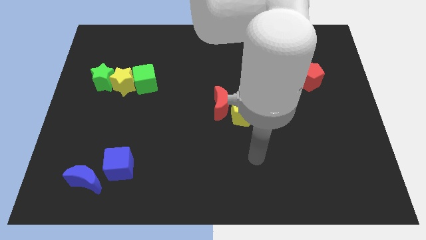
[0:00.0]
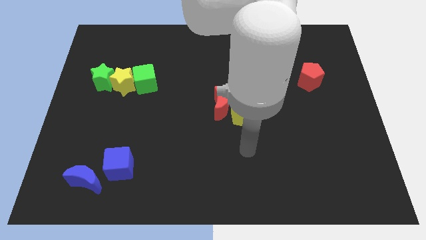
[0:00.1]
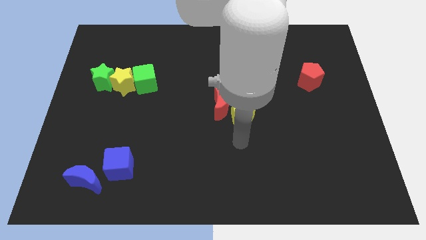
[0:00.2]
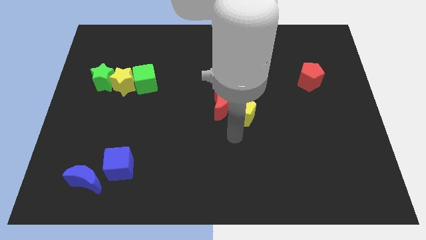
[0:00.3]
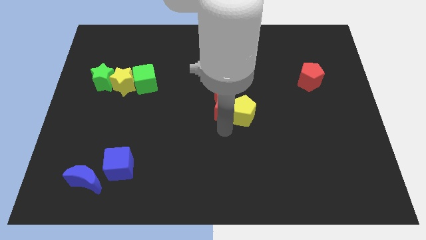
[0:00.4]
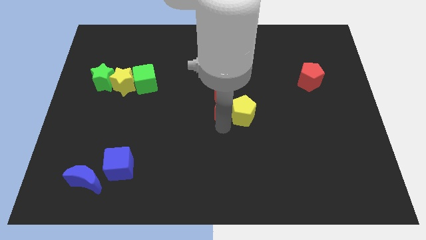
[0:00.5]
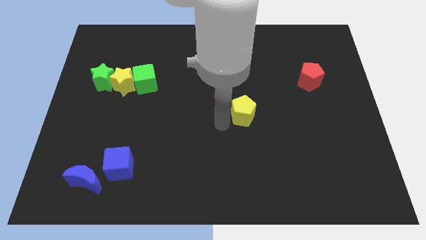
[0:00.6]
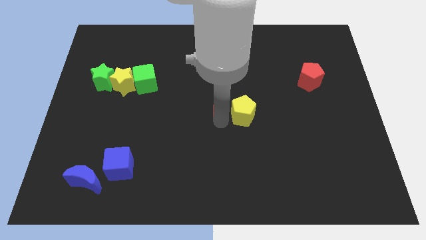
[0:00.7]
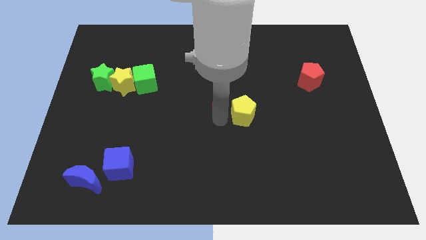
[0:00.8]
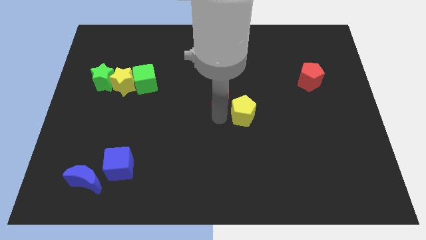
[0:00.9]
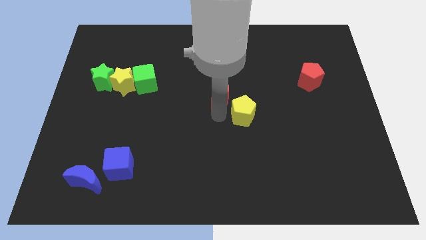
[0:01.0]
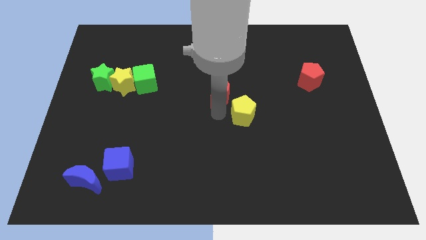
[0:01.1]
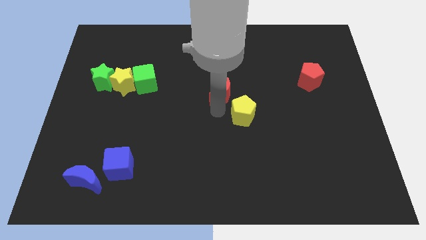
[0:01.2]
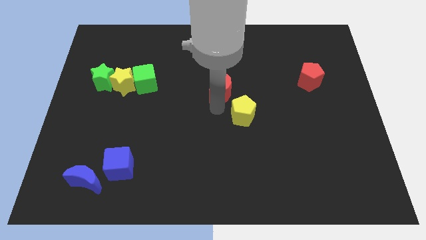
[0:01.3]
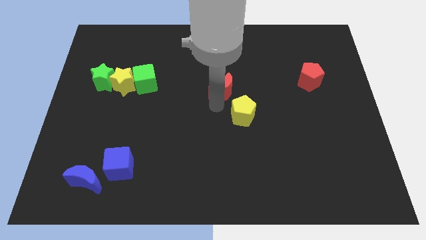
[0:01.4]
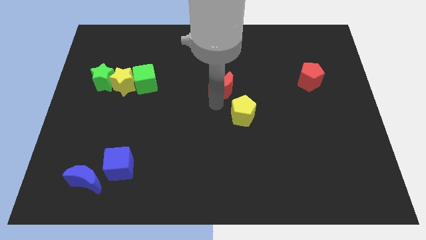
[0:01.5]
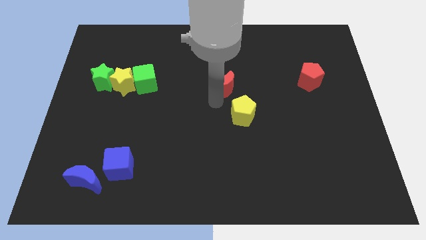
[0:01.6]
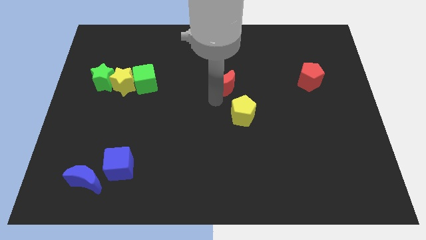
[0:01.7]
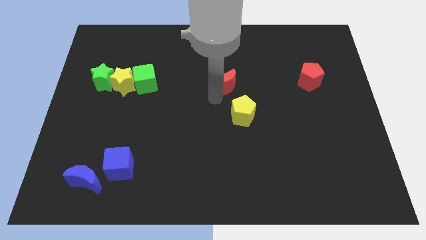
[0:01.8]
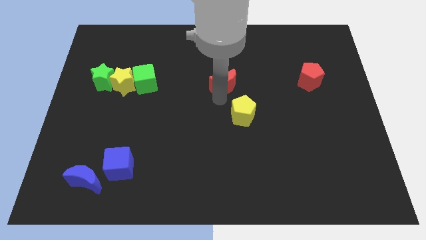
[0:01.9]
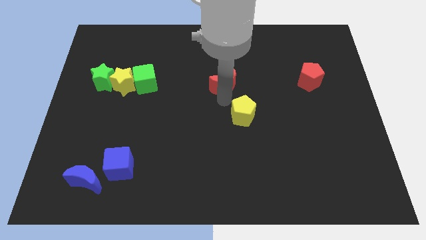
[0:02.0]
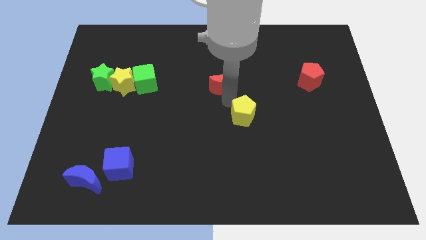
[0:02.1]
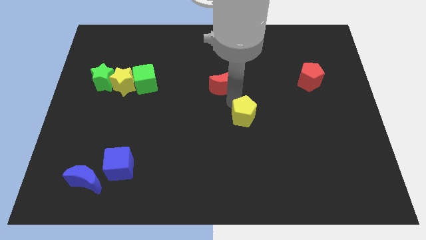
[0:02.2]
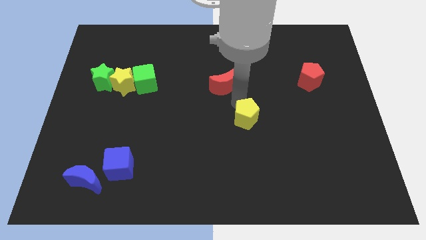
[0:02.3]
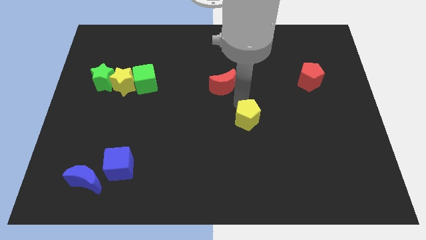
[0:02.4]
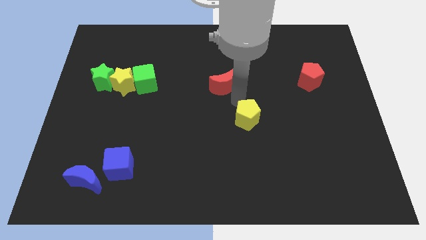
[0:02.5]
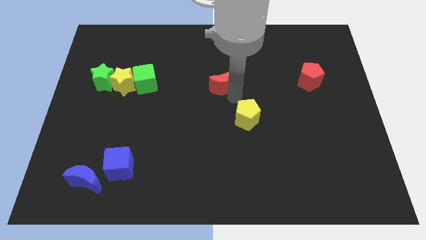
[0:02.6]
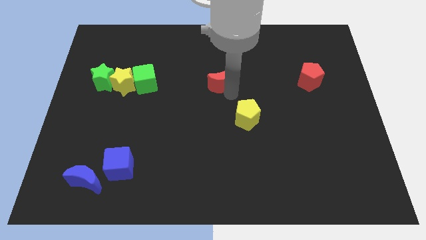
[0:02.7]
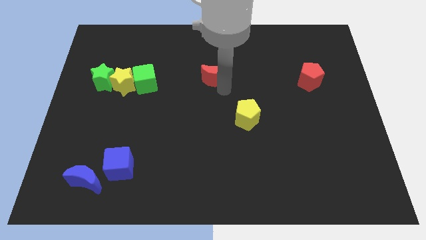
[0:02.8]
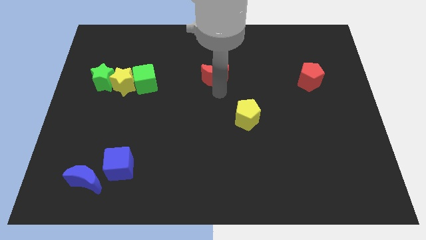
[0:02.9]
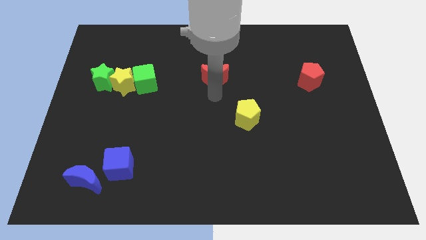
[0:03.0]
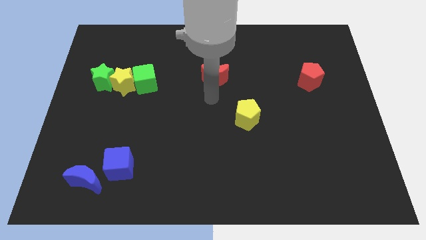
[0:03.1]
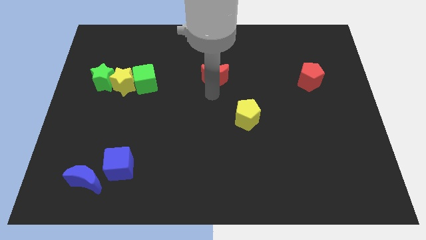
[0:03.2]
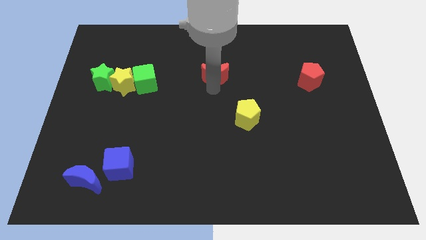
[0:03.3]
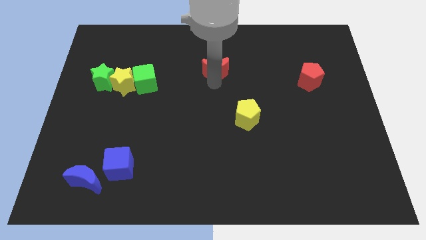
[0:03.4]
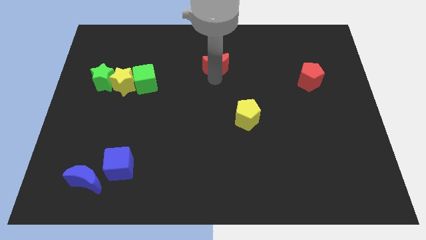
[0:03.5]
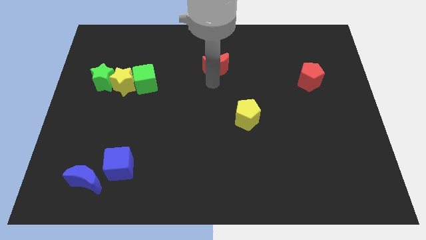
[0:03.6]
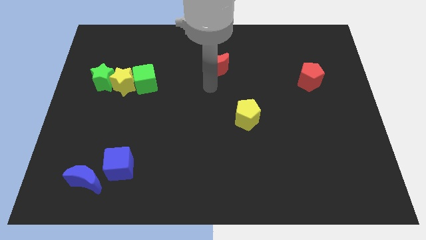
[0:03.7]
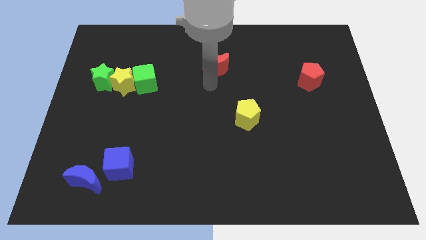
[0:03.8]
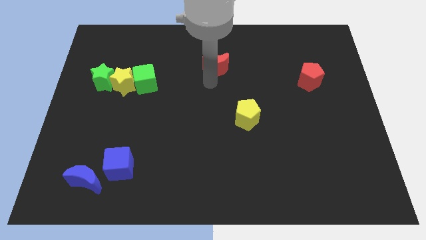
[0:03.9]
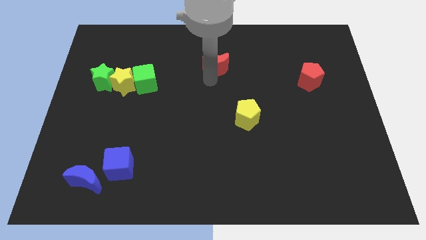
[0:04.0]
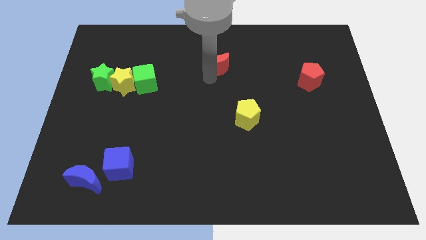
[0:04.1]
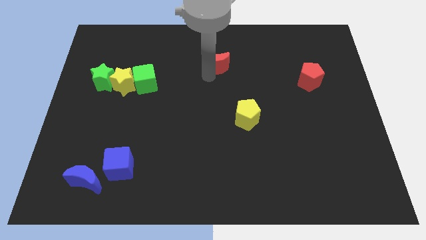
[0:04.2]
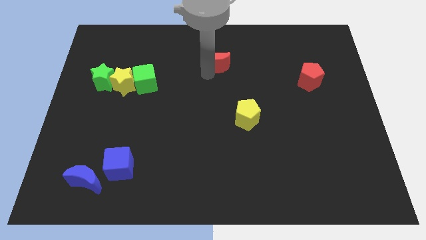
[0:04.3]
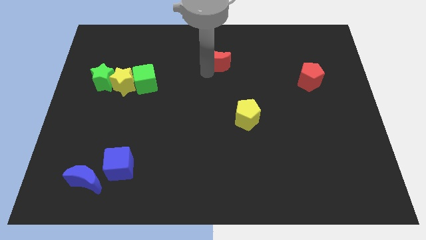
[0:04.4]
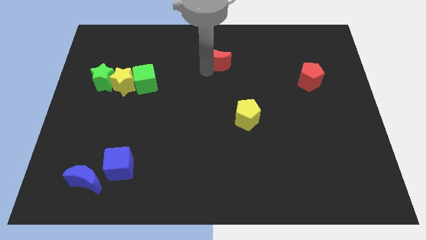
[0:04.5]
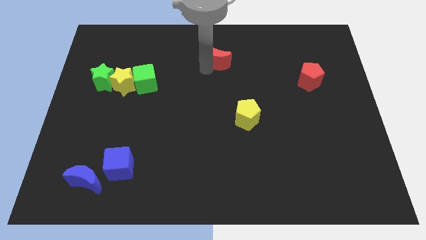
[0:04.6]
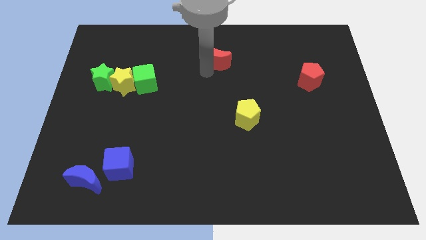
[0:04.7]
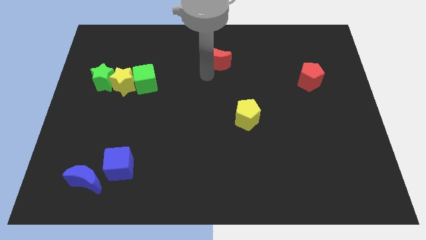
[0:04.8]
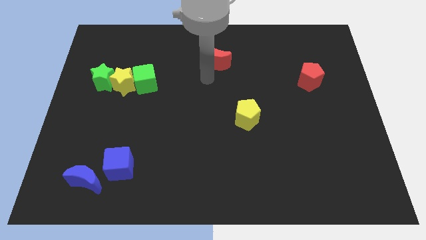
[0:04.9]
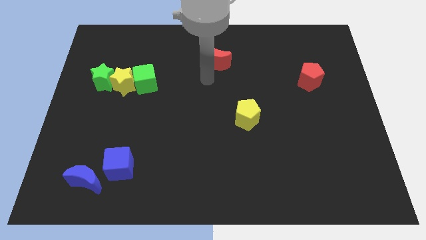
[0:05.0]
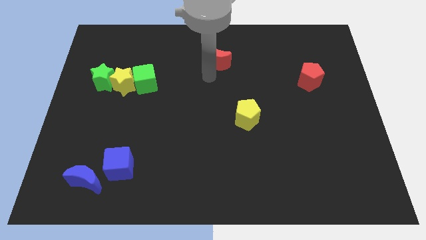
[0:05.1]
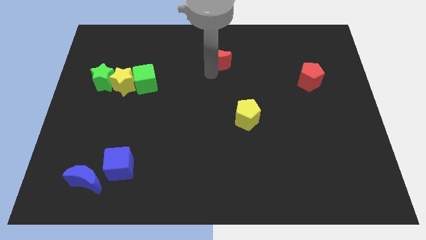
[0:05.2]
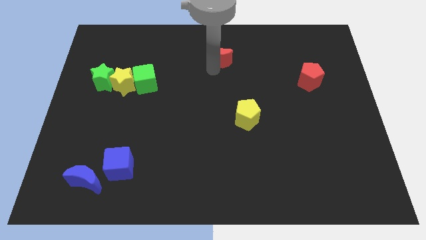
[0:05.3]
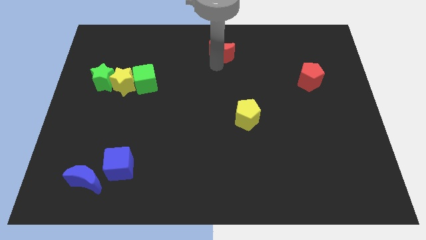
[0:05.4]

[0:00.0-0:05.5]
slide the red moon to the towards your base
